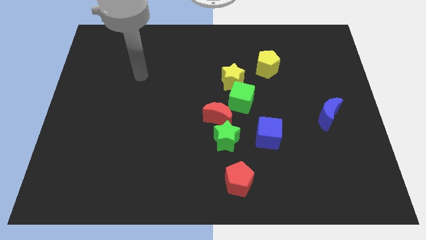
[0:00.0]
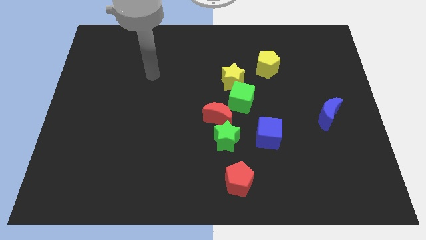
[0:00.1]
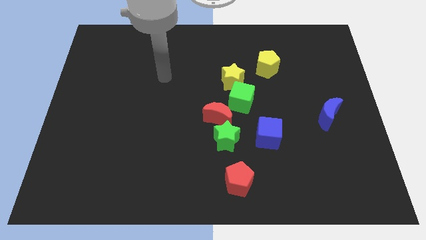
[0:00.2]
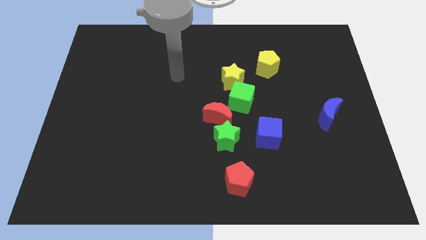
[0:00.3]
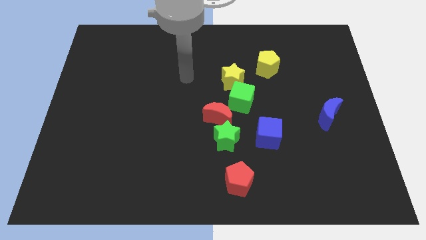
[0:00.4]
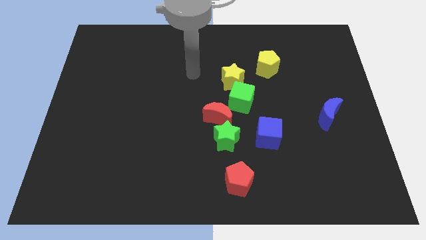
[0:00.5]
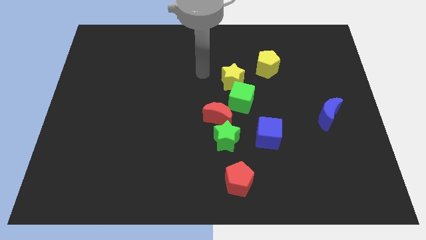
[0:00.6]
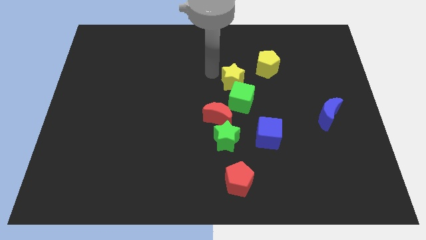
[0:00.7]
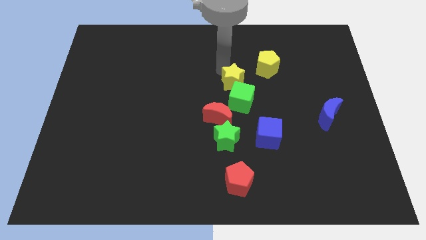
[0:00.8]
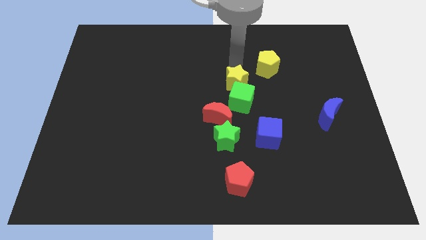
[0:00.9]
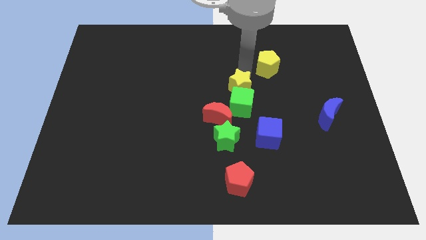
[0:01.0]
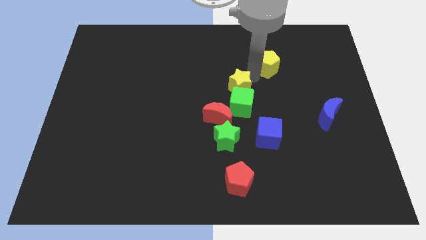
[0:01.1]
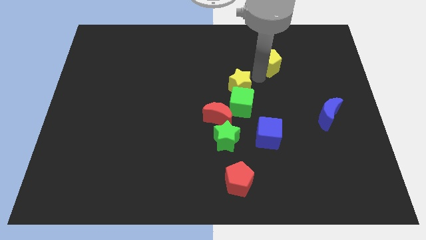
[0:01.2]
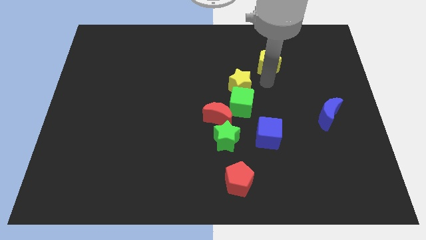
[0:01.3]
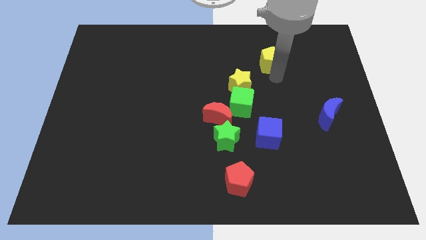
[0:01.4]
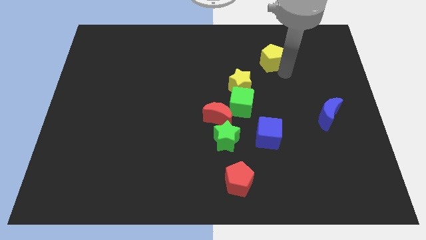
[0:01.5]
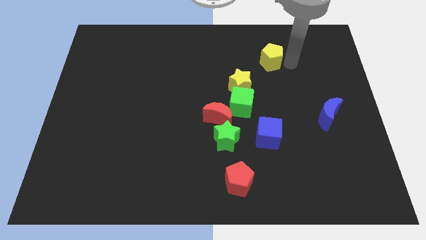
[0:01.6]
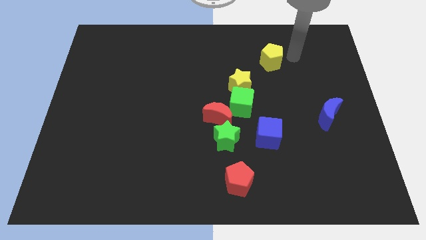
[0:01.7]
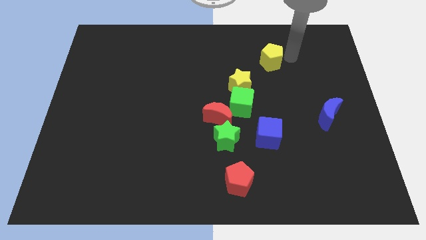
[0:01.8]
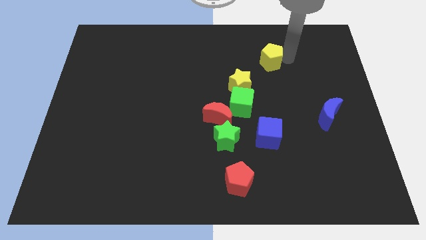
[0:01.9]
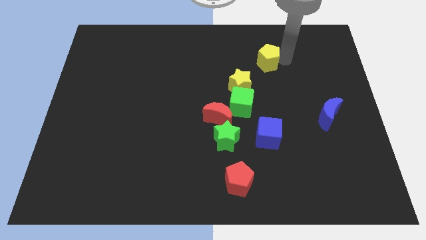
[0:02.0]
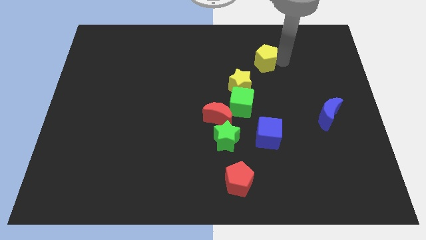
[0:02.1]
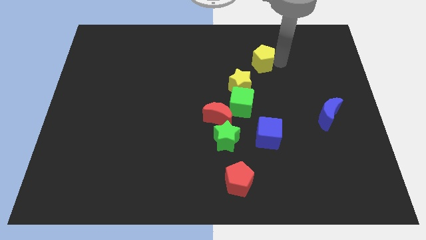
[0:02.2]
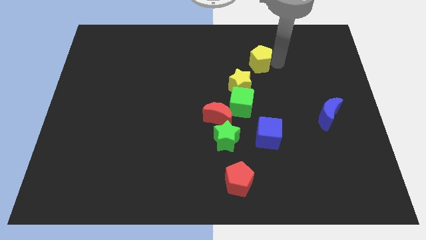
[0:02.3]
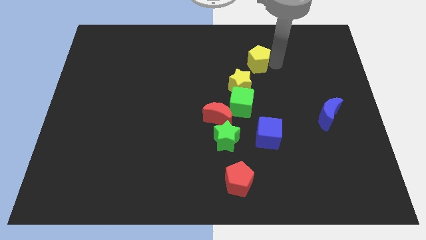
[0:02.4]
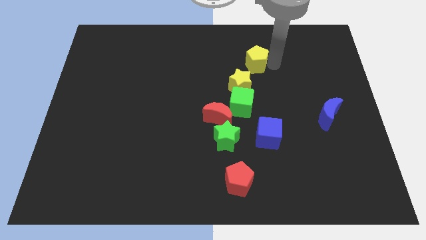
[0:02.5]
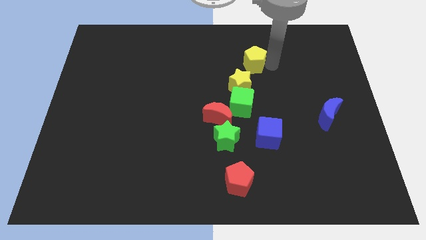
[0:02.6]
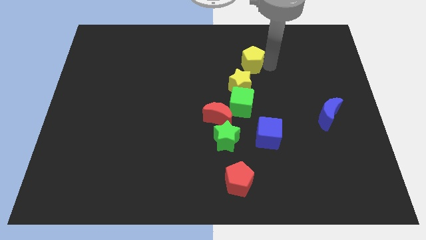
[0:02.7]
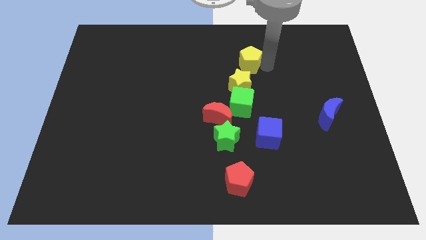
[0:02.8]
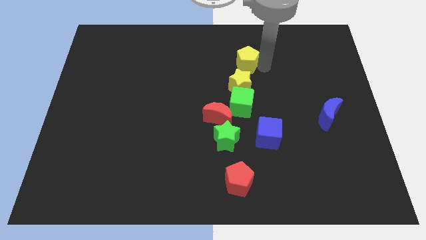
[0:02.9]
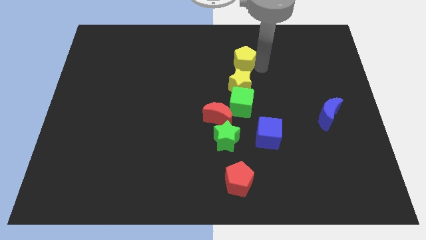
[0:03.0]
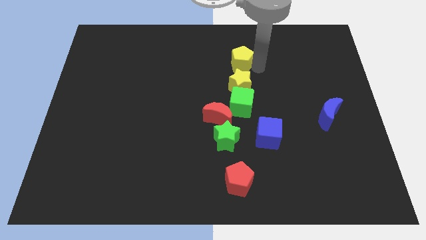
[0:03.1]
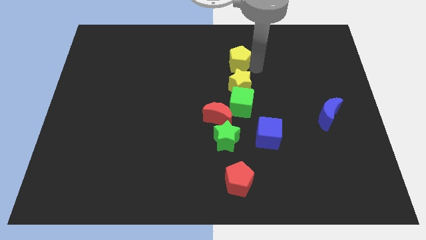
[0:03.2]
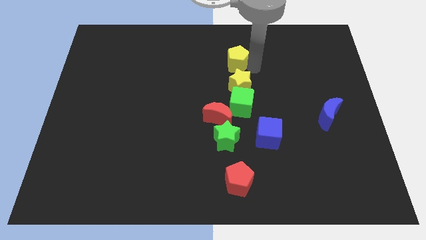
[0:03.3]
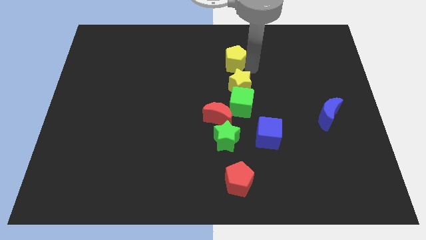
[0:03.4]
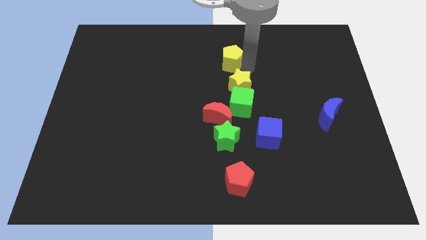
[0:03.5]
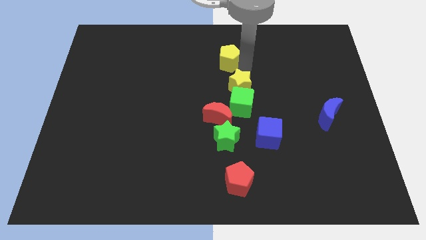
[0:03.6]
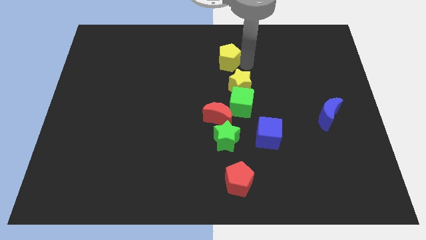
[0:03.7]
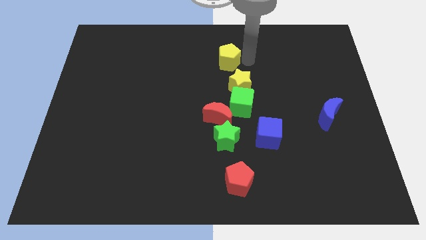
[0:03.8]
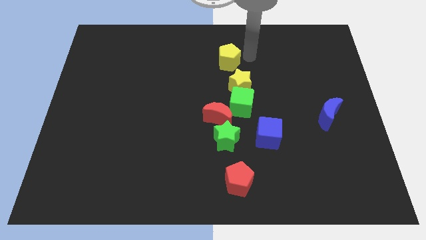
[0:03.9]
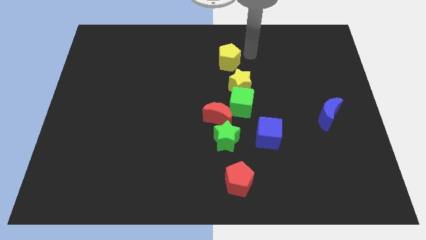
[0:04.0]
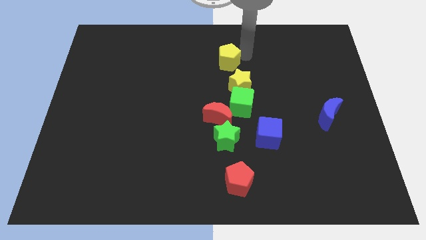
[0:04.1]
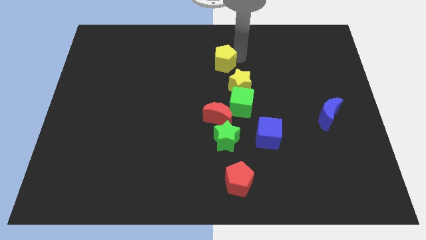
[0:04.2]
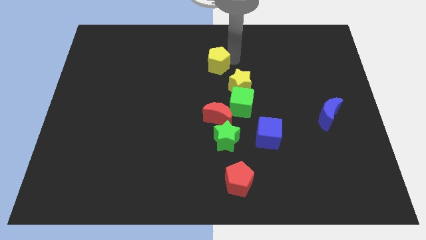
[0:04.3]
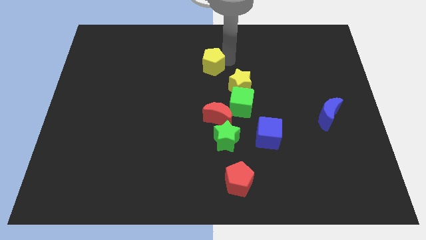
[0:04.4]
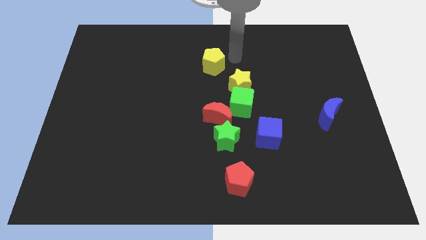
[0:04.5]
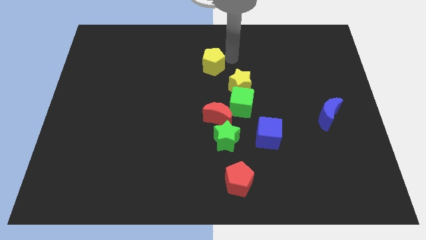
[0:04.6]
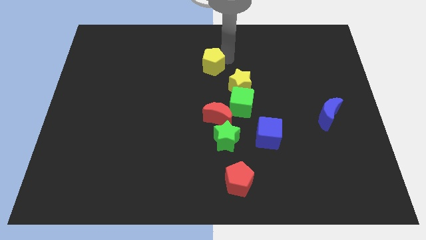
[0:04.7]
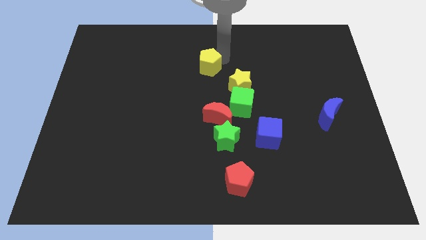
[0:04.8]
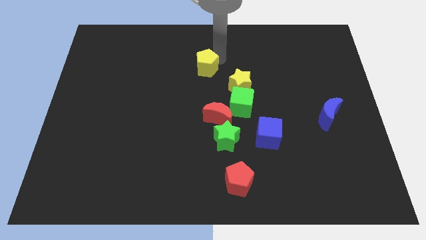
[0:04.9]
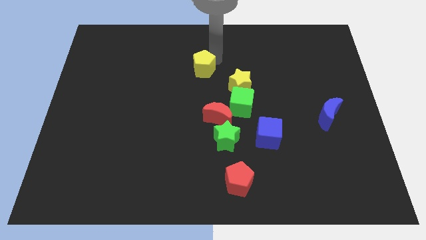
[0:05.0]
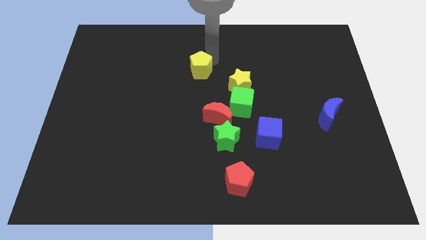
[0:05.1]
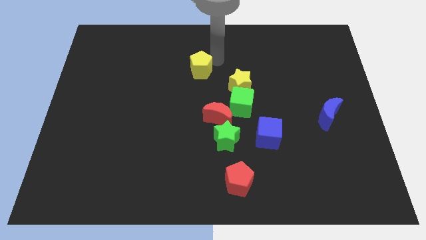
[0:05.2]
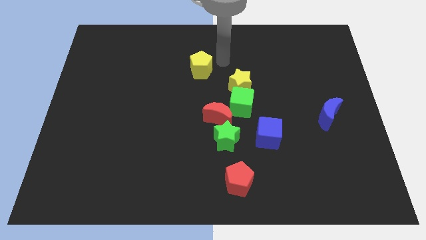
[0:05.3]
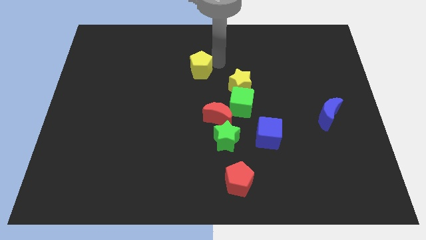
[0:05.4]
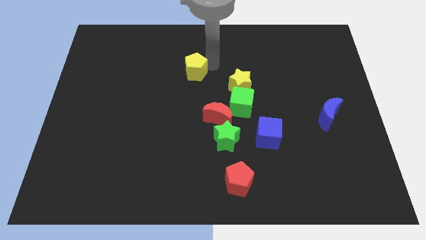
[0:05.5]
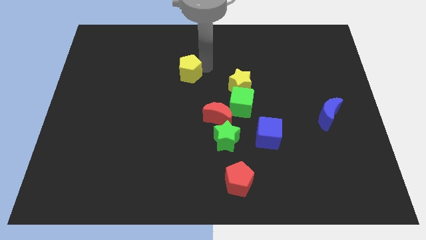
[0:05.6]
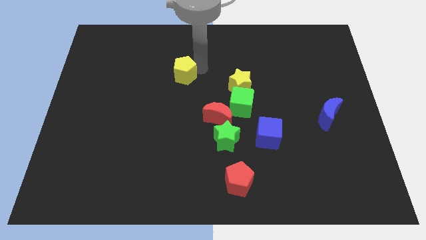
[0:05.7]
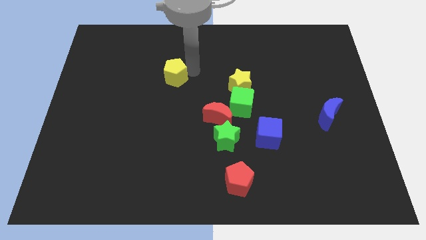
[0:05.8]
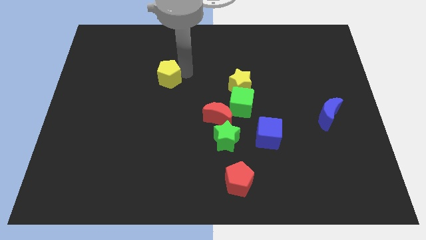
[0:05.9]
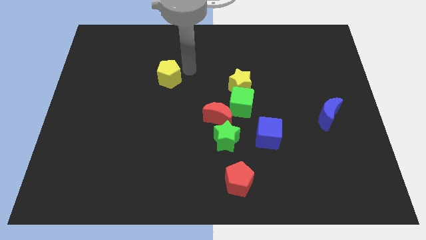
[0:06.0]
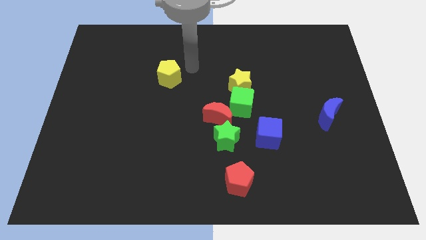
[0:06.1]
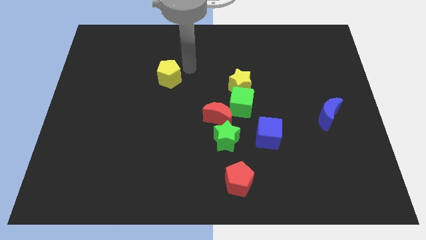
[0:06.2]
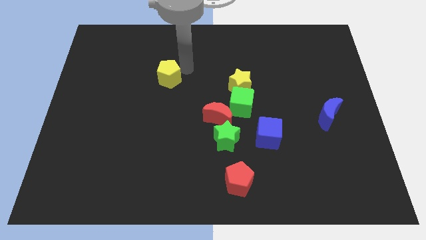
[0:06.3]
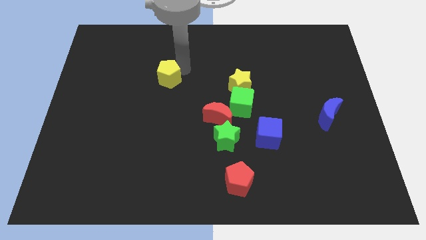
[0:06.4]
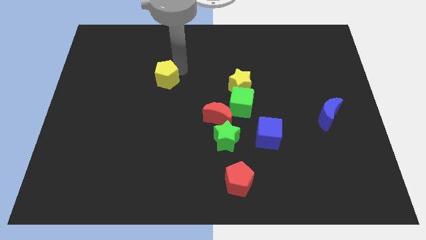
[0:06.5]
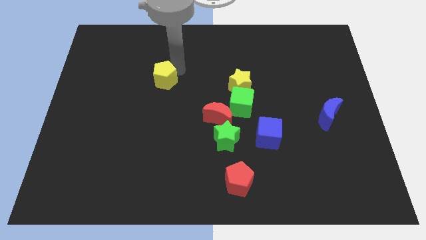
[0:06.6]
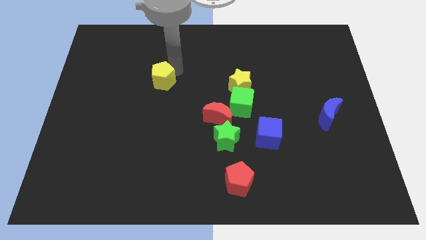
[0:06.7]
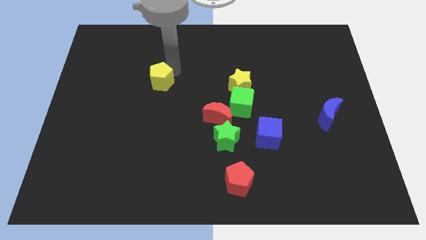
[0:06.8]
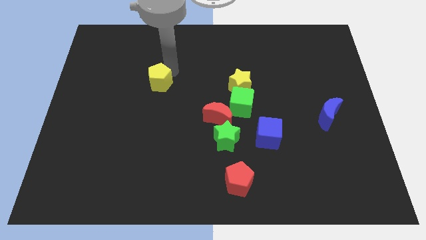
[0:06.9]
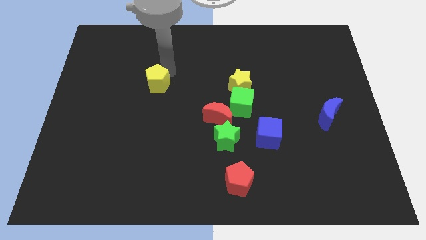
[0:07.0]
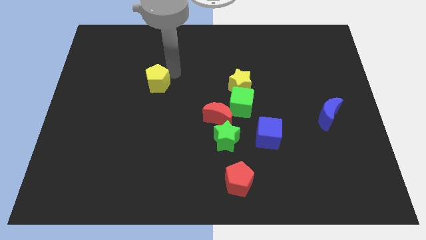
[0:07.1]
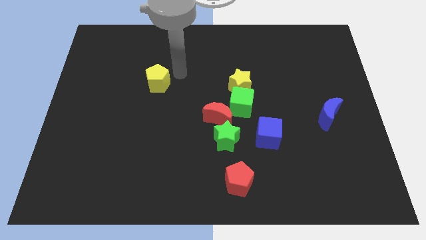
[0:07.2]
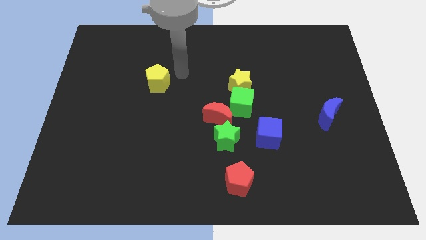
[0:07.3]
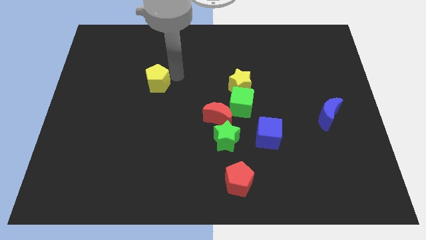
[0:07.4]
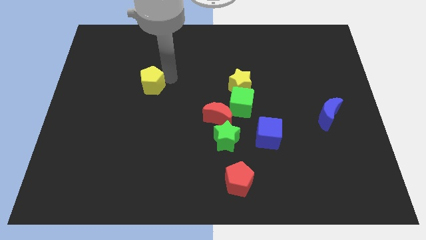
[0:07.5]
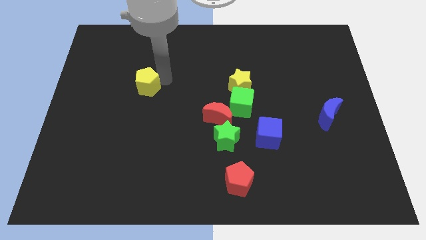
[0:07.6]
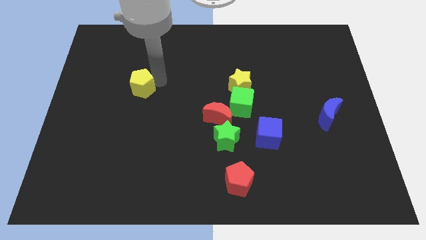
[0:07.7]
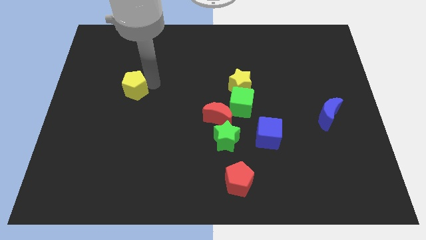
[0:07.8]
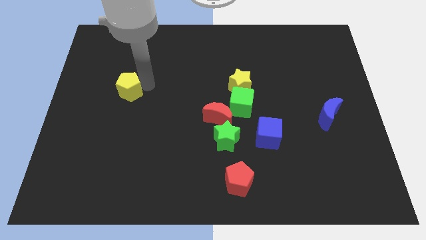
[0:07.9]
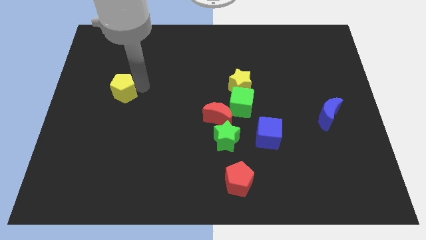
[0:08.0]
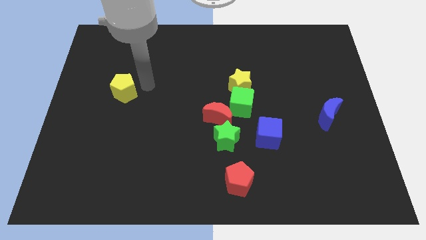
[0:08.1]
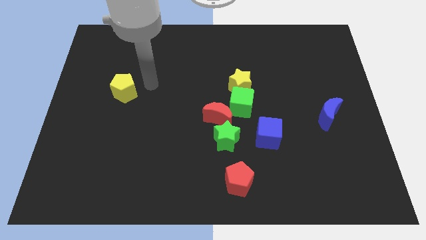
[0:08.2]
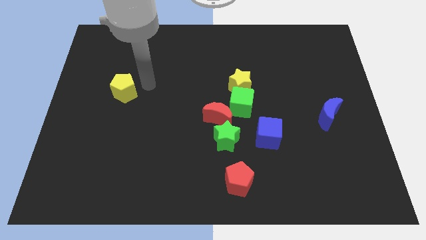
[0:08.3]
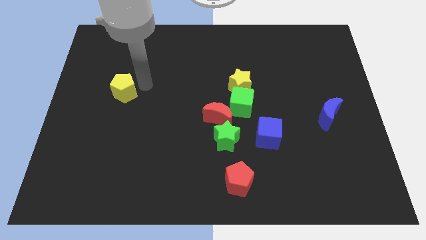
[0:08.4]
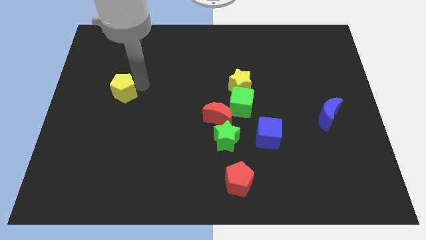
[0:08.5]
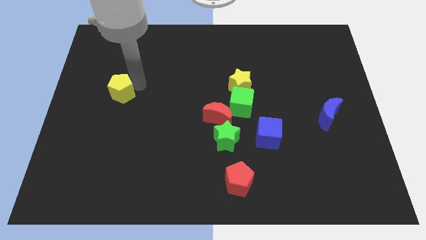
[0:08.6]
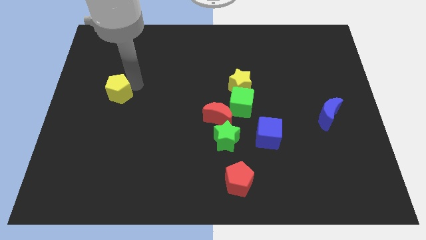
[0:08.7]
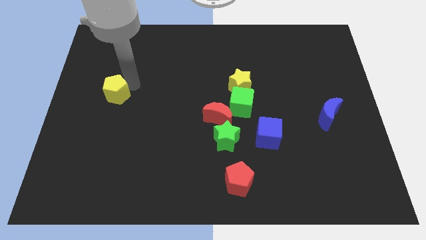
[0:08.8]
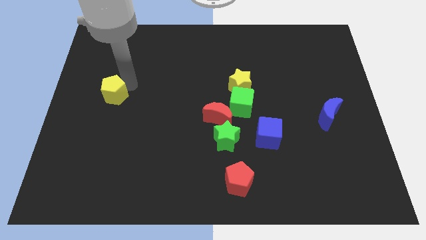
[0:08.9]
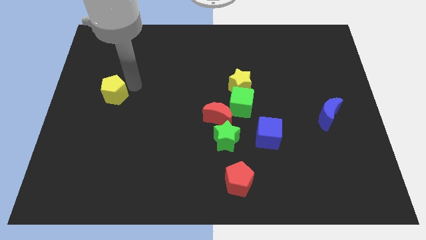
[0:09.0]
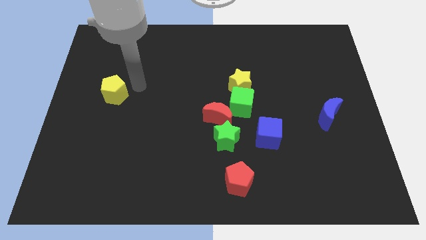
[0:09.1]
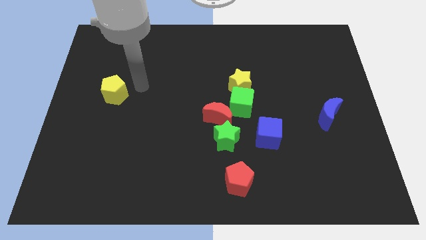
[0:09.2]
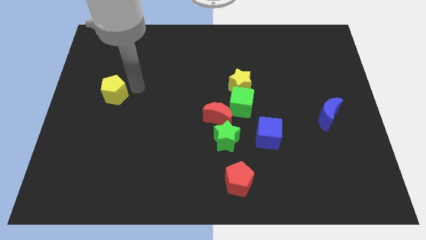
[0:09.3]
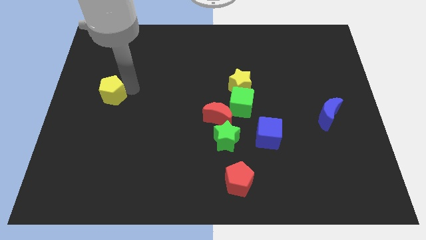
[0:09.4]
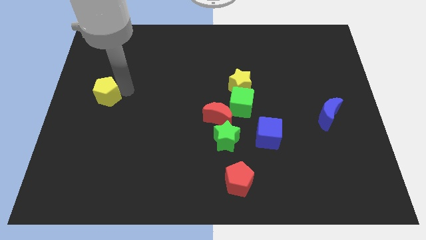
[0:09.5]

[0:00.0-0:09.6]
move the yellow pentagon to the center left
